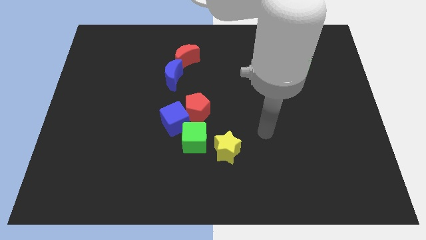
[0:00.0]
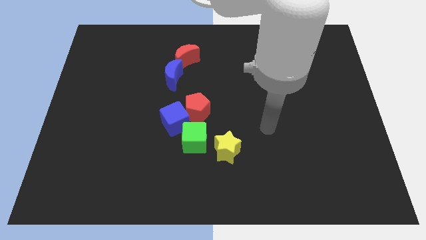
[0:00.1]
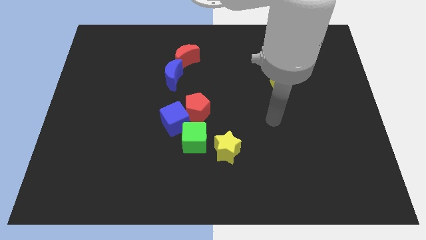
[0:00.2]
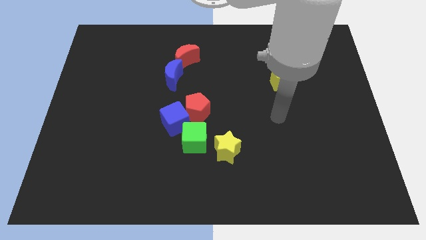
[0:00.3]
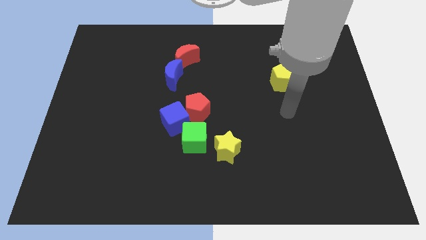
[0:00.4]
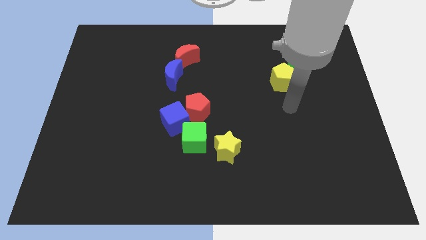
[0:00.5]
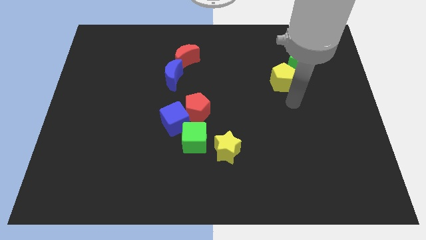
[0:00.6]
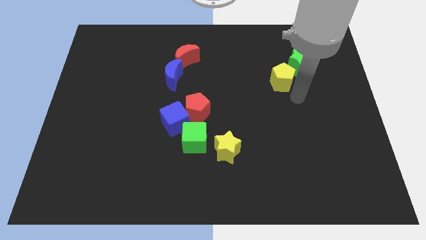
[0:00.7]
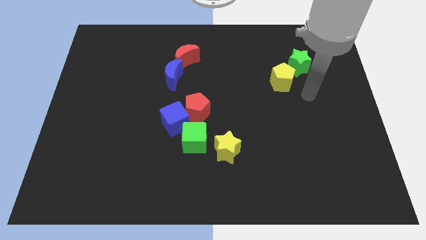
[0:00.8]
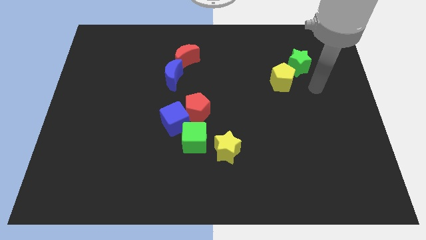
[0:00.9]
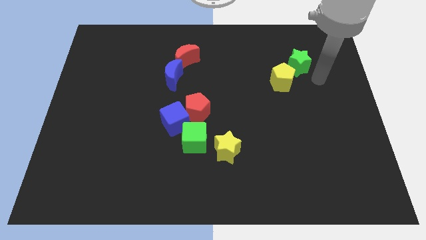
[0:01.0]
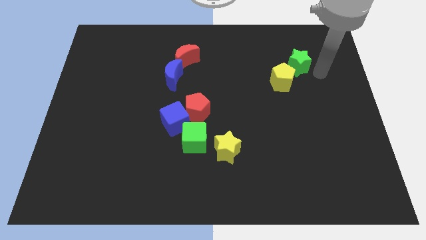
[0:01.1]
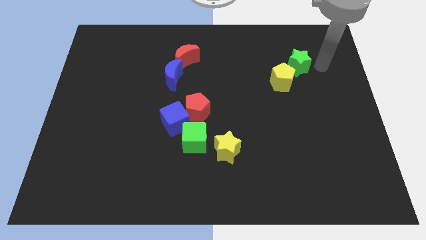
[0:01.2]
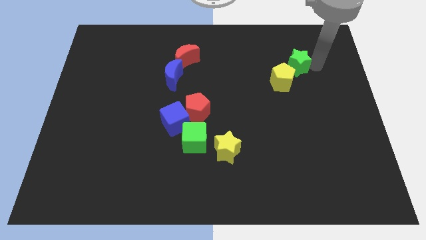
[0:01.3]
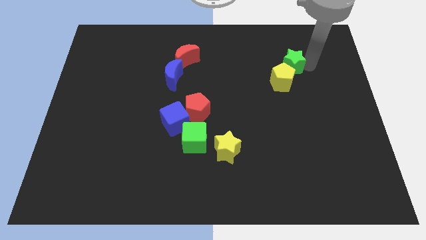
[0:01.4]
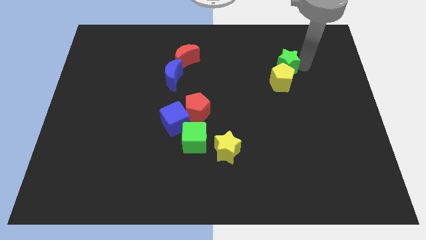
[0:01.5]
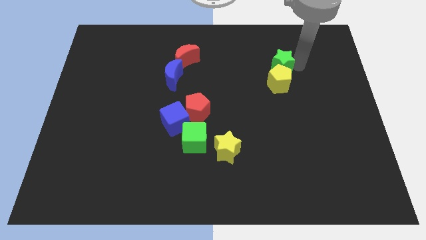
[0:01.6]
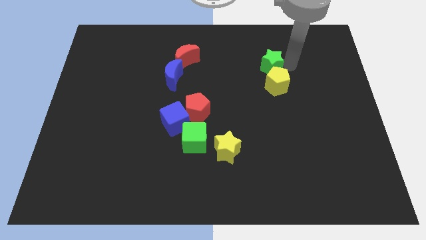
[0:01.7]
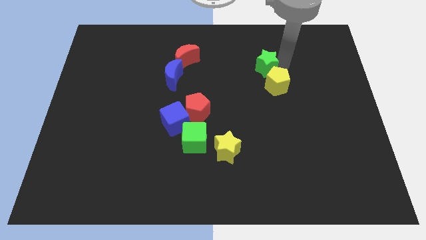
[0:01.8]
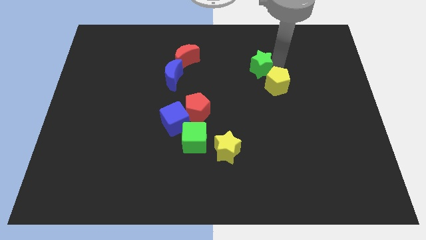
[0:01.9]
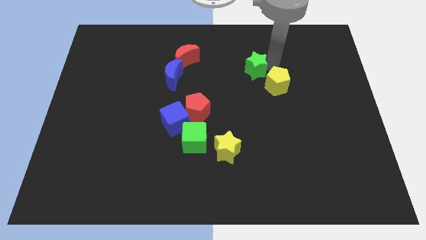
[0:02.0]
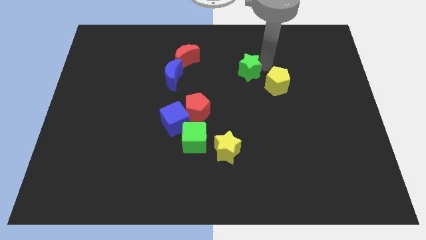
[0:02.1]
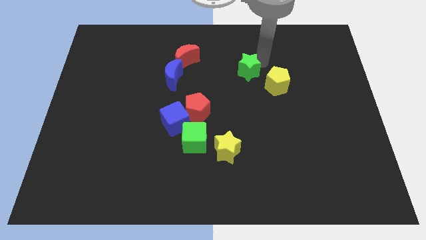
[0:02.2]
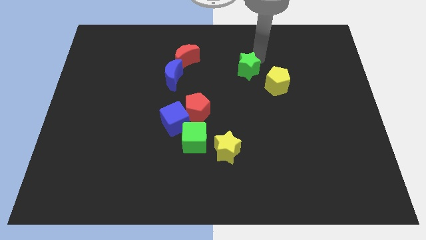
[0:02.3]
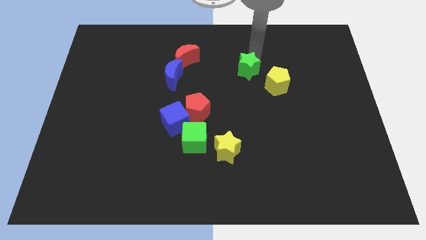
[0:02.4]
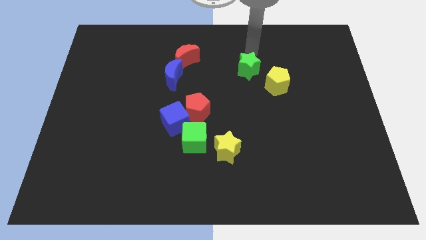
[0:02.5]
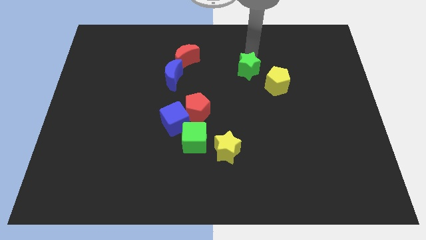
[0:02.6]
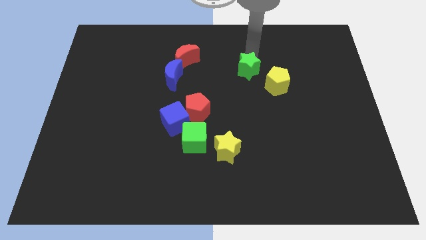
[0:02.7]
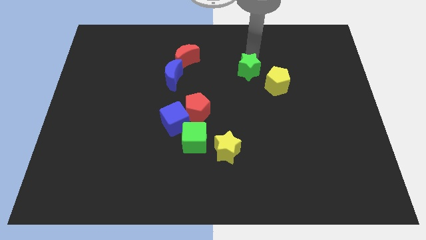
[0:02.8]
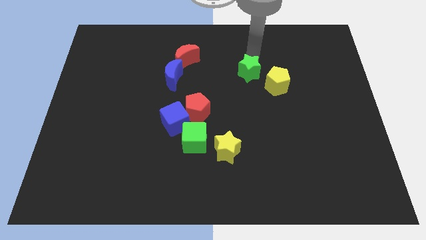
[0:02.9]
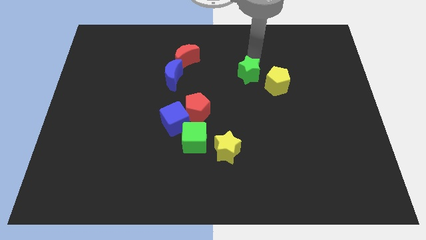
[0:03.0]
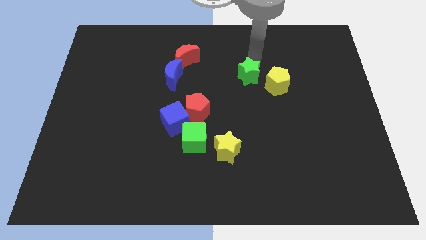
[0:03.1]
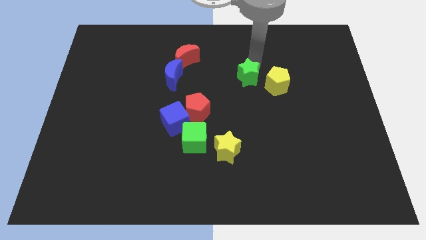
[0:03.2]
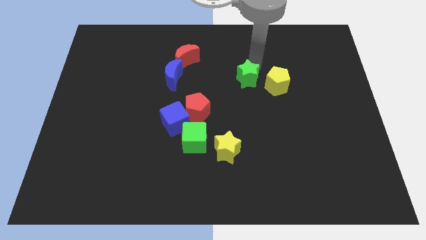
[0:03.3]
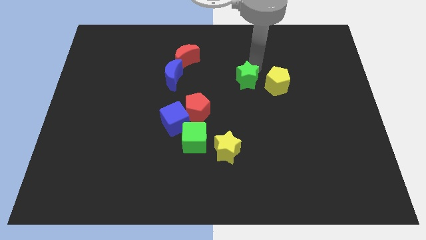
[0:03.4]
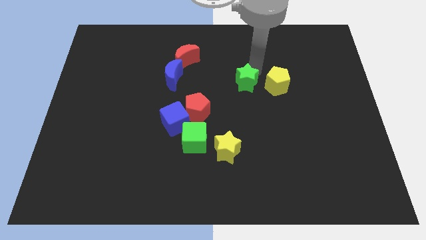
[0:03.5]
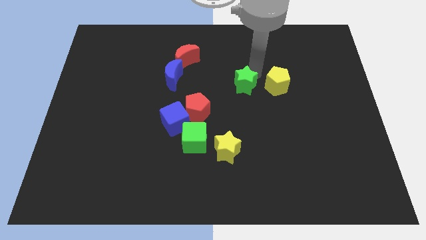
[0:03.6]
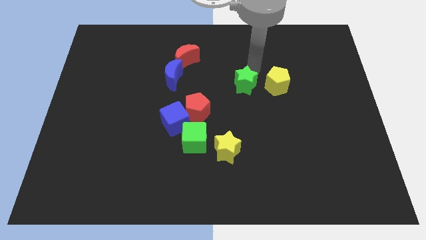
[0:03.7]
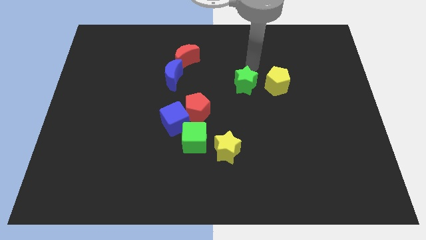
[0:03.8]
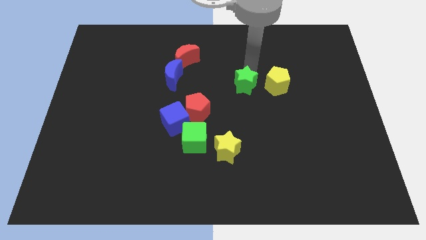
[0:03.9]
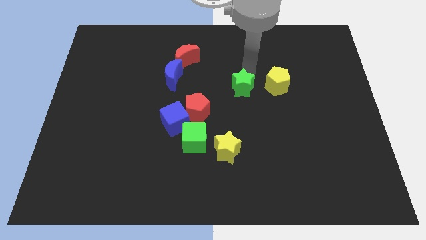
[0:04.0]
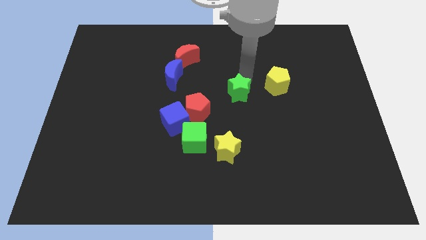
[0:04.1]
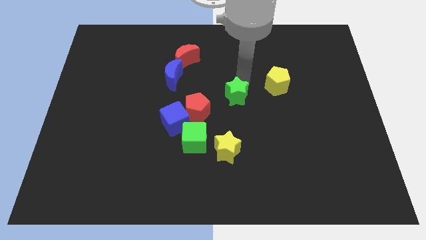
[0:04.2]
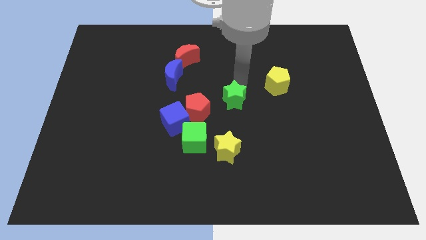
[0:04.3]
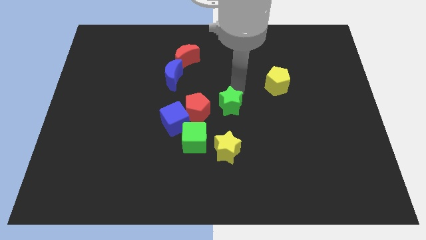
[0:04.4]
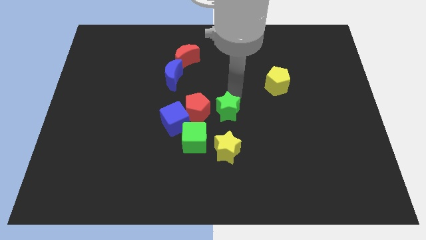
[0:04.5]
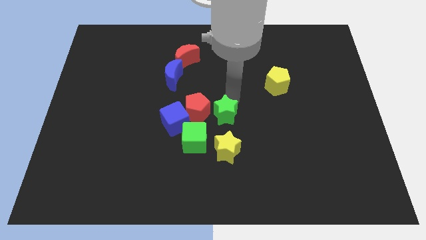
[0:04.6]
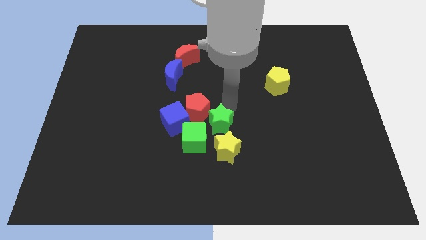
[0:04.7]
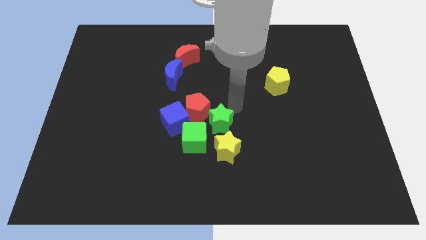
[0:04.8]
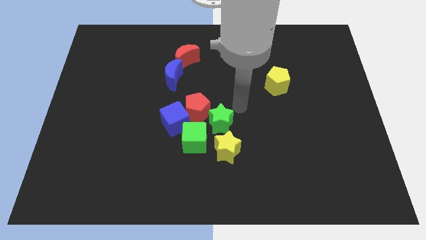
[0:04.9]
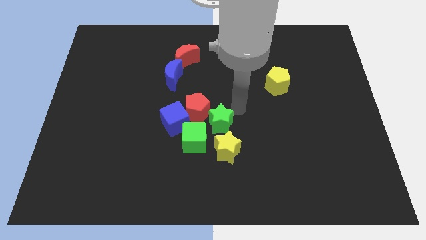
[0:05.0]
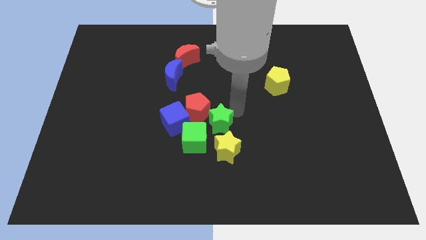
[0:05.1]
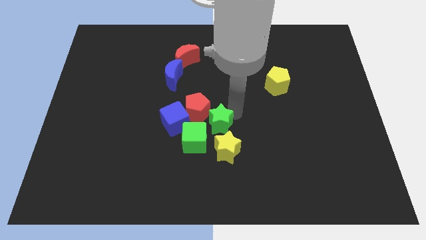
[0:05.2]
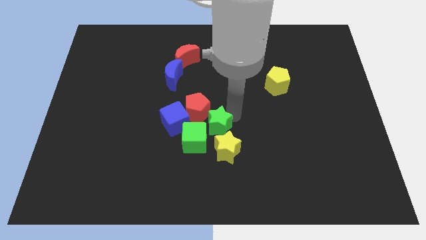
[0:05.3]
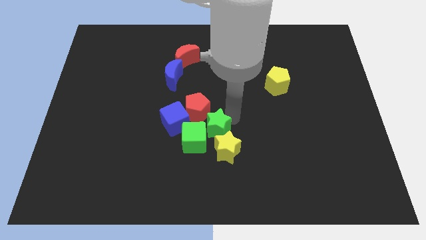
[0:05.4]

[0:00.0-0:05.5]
put the green star to the green cube

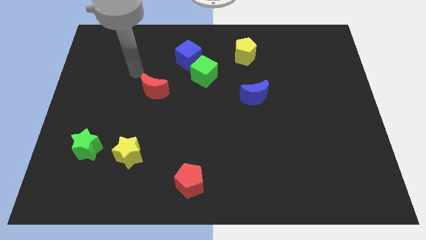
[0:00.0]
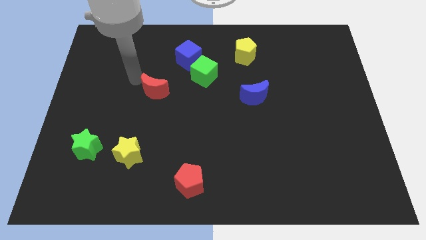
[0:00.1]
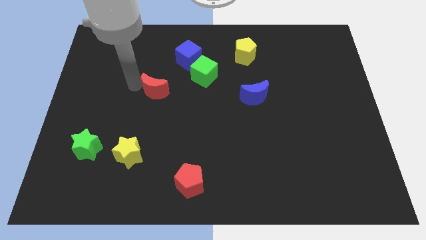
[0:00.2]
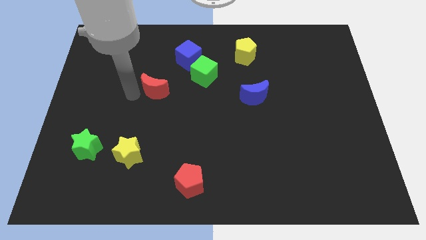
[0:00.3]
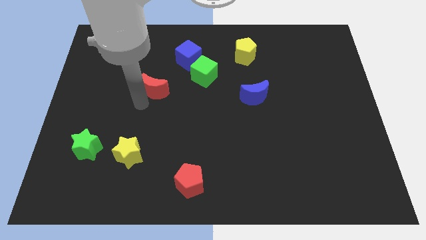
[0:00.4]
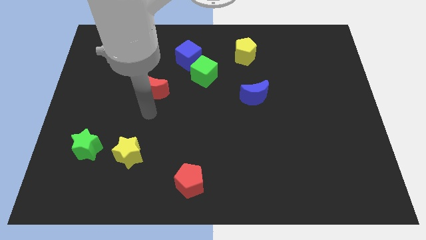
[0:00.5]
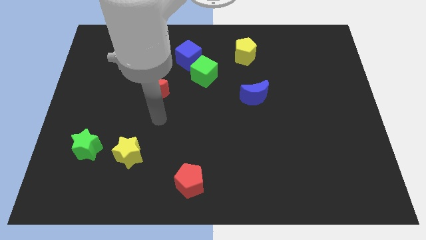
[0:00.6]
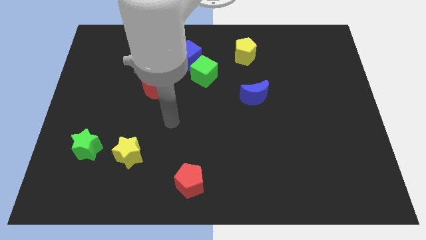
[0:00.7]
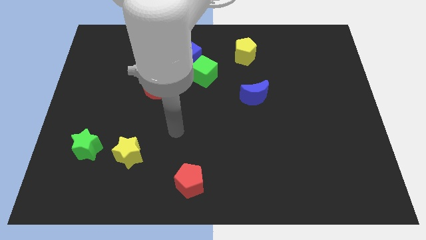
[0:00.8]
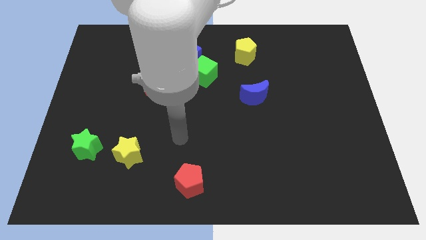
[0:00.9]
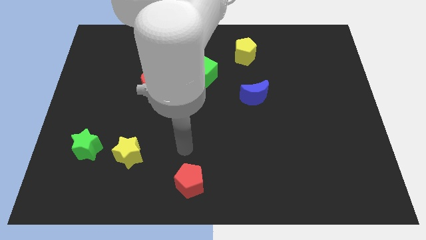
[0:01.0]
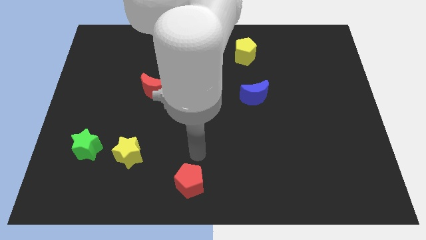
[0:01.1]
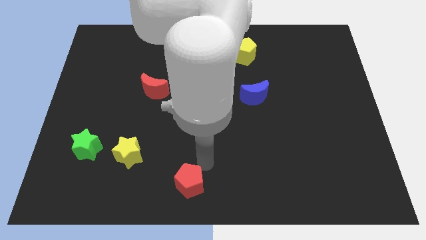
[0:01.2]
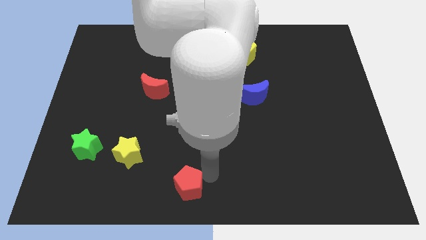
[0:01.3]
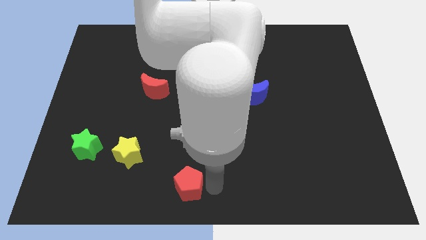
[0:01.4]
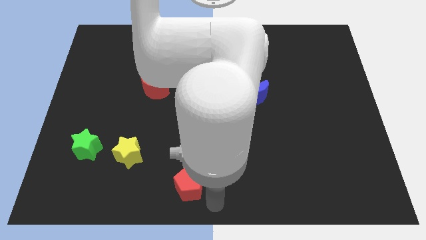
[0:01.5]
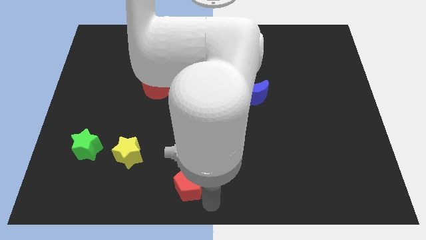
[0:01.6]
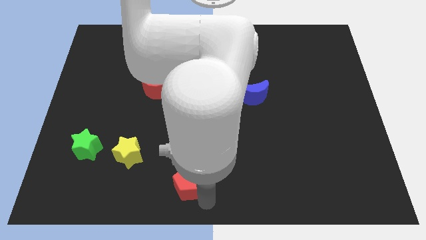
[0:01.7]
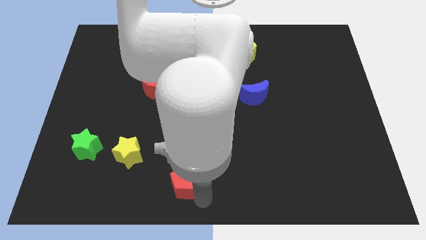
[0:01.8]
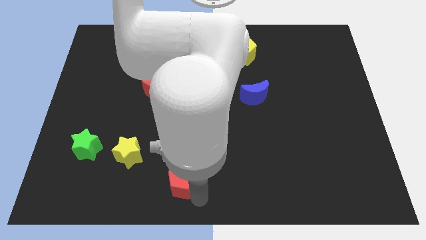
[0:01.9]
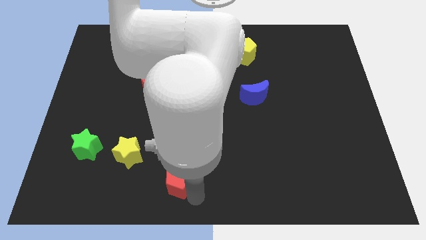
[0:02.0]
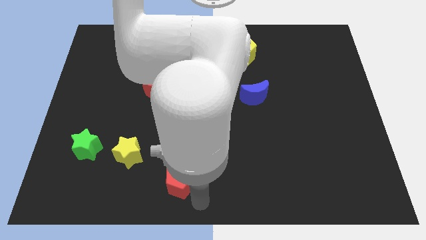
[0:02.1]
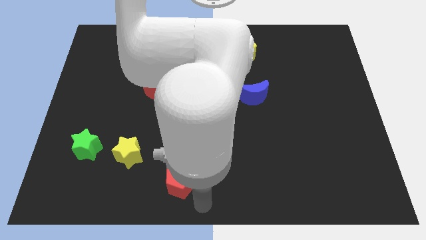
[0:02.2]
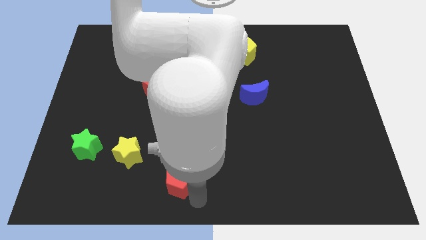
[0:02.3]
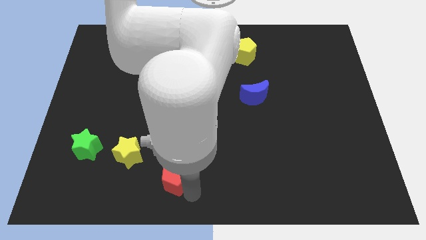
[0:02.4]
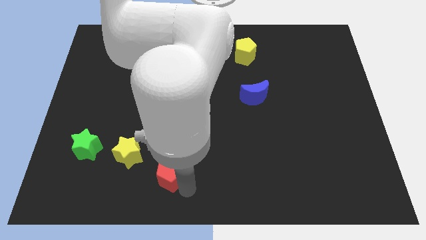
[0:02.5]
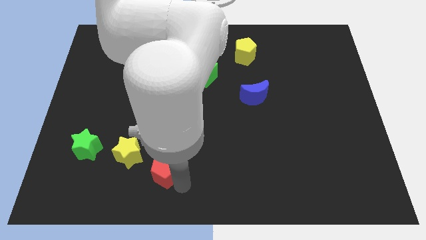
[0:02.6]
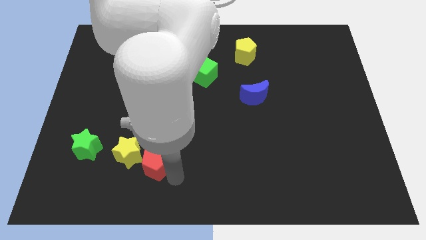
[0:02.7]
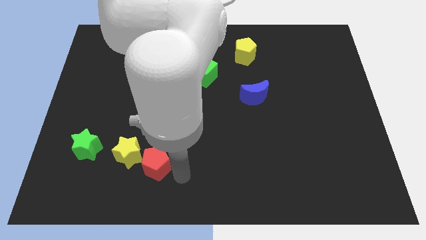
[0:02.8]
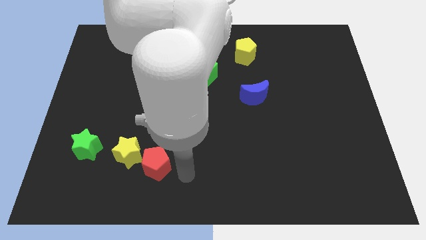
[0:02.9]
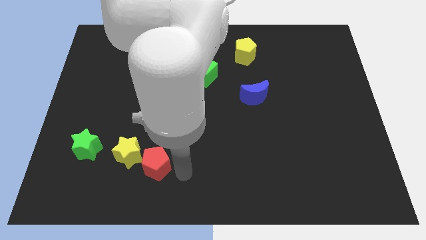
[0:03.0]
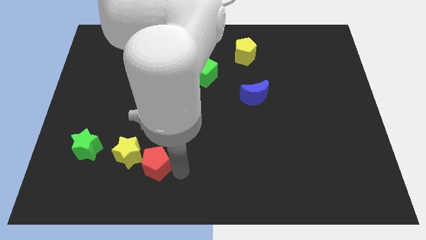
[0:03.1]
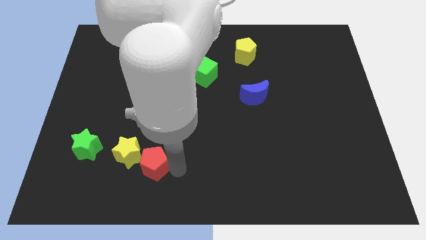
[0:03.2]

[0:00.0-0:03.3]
push the red pentagon towards the yellow star
